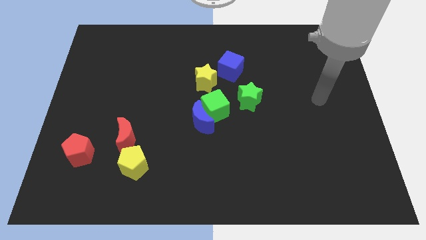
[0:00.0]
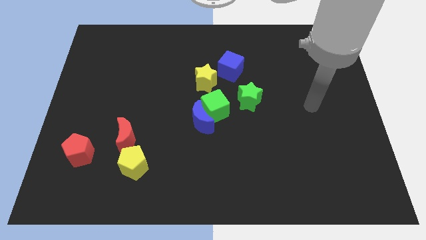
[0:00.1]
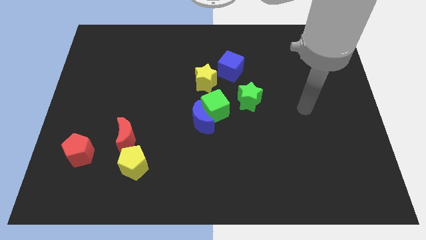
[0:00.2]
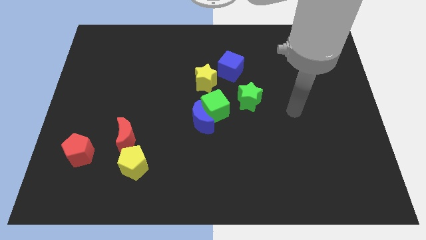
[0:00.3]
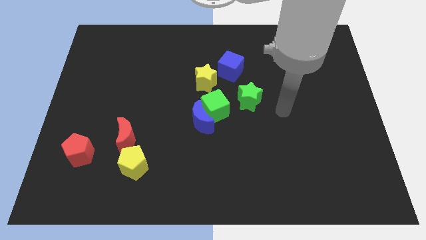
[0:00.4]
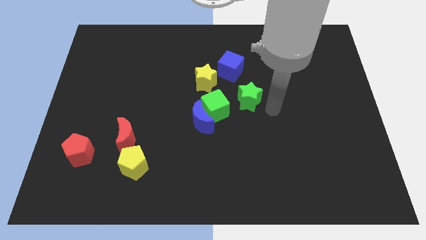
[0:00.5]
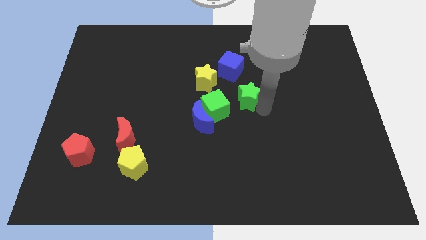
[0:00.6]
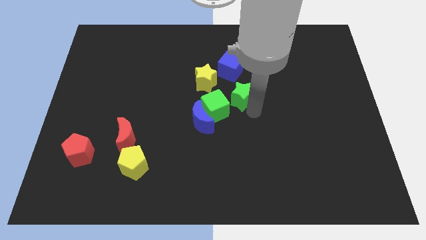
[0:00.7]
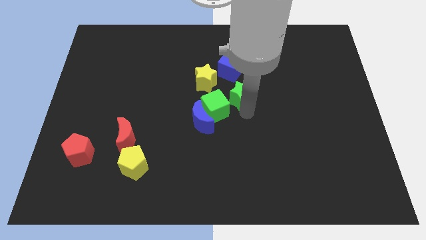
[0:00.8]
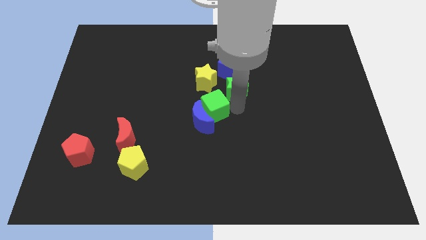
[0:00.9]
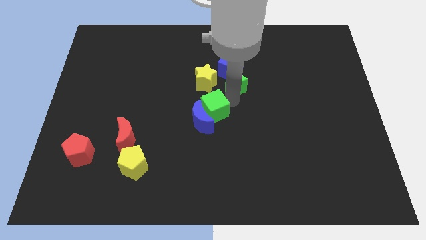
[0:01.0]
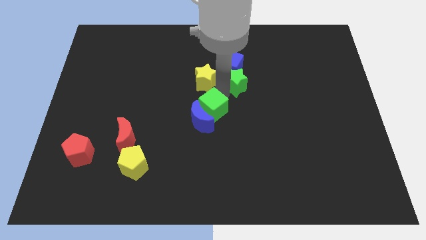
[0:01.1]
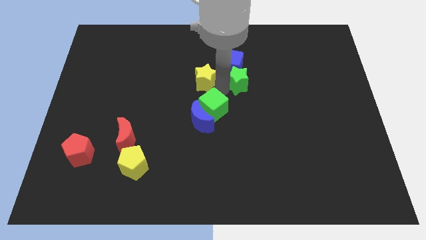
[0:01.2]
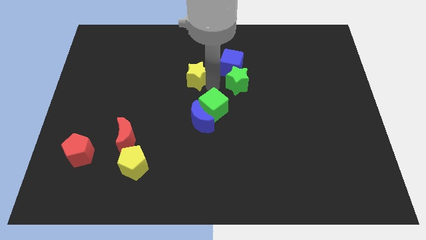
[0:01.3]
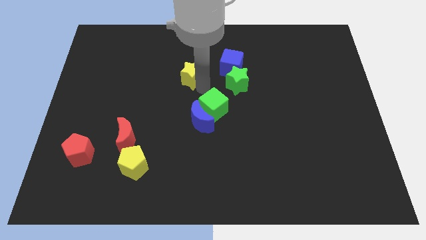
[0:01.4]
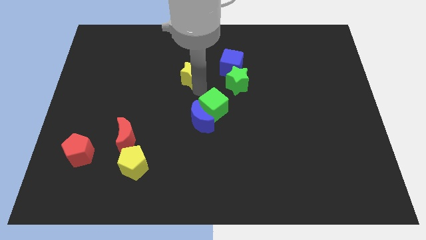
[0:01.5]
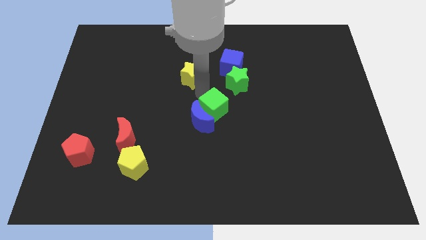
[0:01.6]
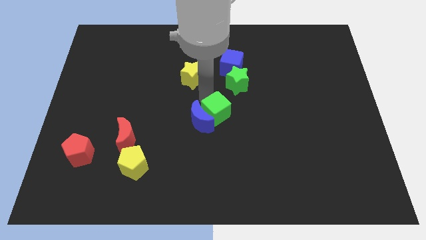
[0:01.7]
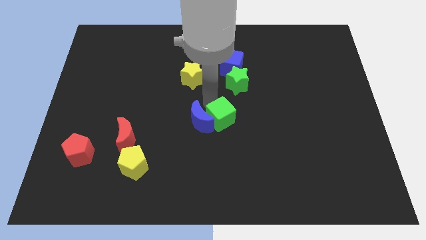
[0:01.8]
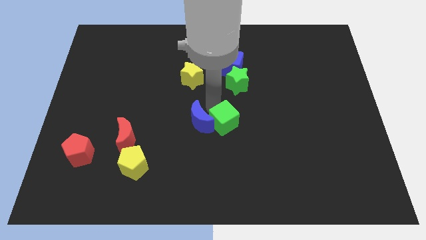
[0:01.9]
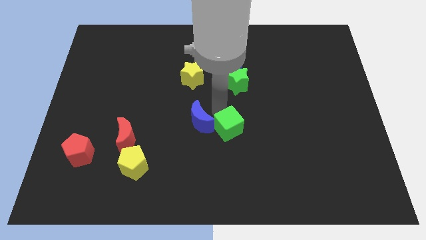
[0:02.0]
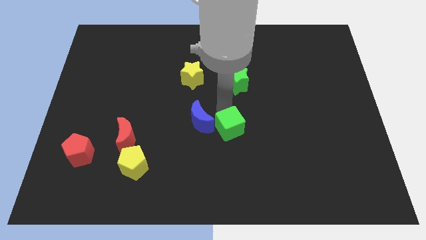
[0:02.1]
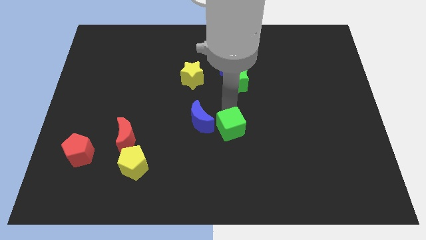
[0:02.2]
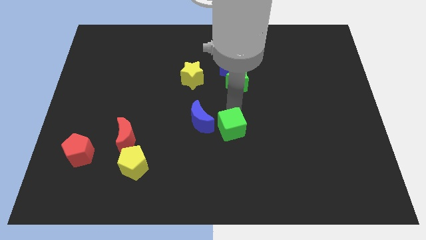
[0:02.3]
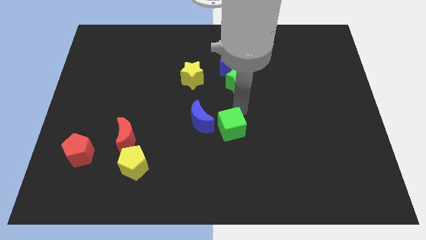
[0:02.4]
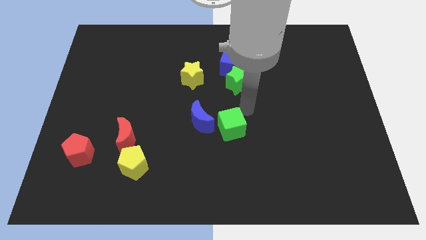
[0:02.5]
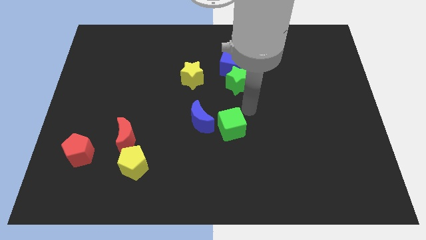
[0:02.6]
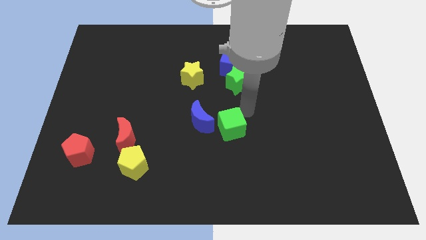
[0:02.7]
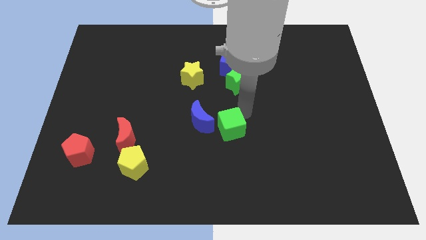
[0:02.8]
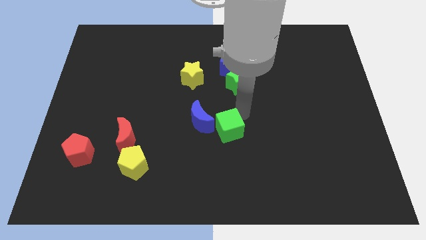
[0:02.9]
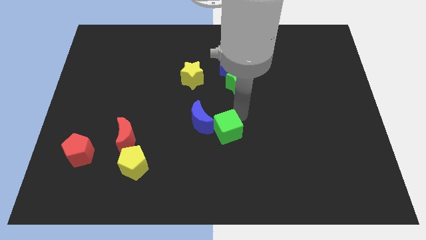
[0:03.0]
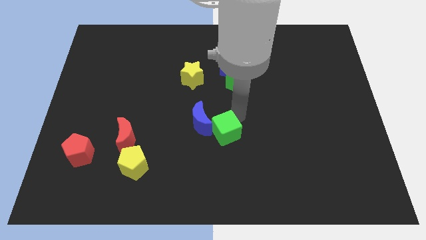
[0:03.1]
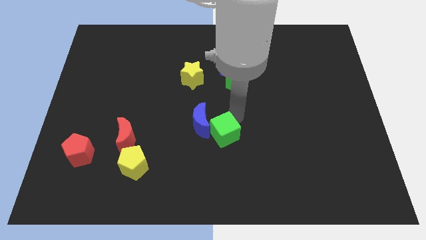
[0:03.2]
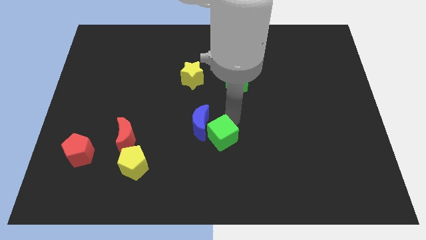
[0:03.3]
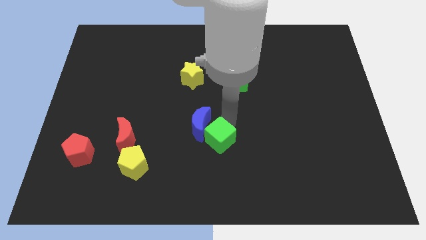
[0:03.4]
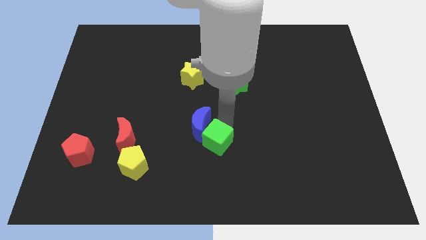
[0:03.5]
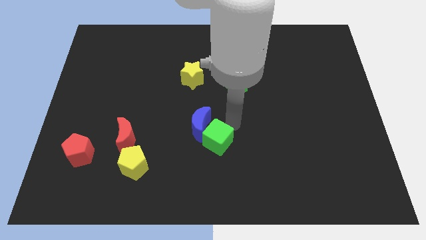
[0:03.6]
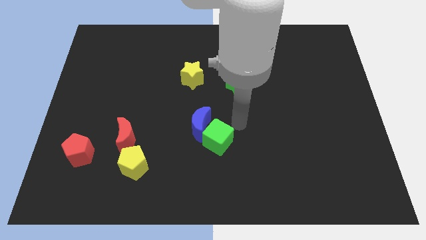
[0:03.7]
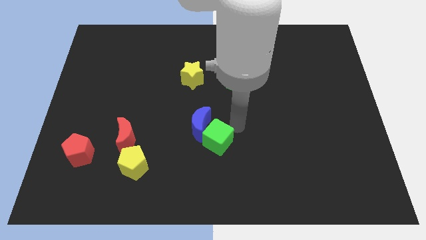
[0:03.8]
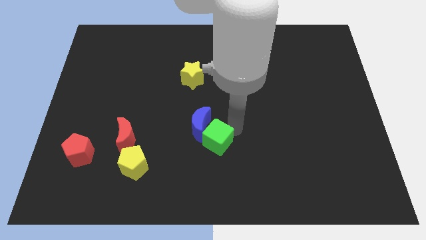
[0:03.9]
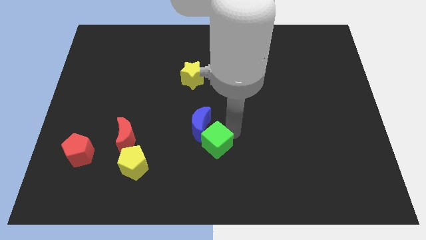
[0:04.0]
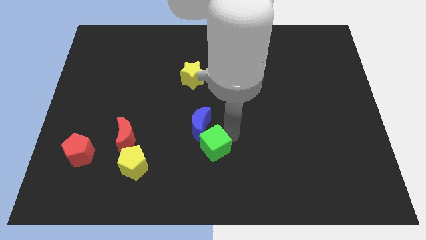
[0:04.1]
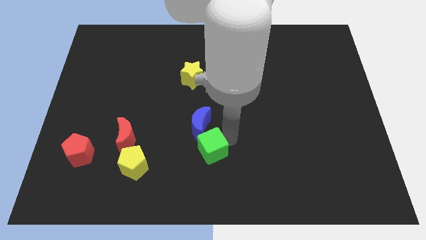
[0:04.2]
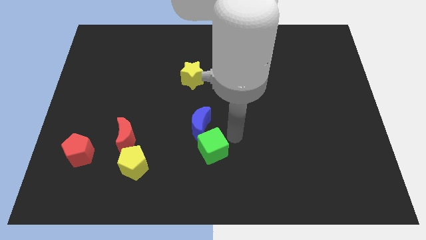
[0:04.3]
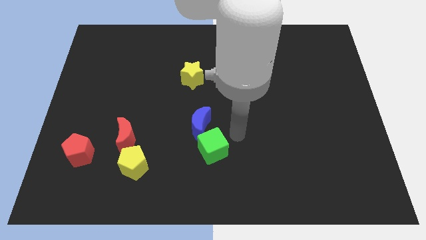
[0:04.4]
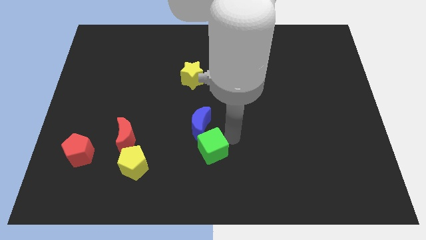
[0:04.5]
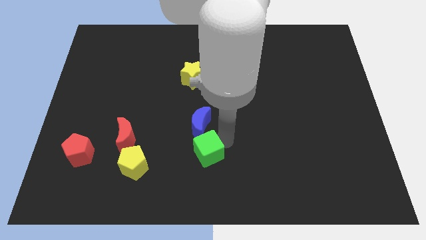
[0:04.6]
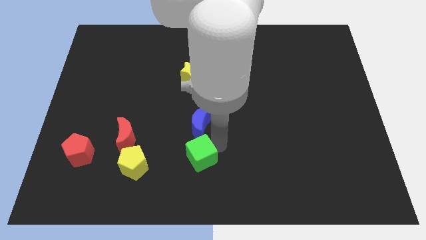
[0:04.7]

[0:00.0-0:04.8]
move the green cube to the right side of the yellow pentagon

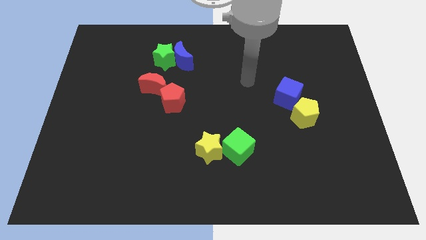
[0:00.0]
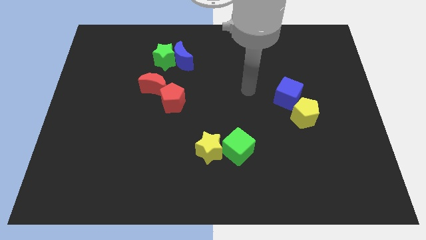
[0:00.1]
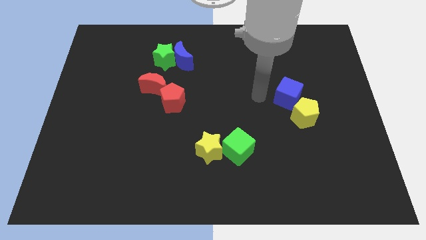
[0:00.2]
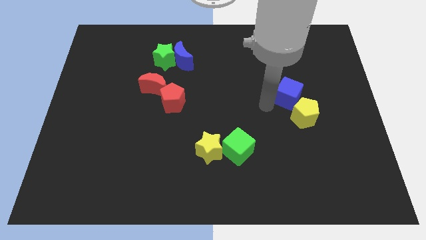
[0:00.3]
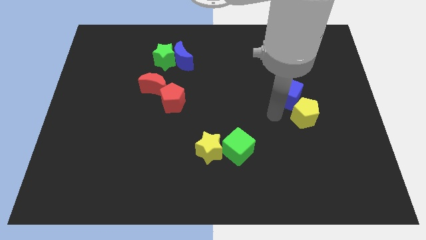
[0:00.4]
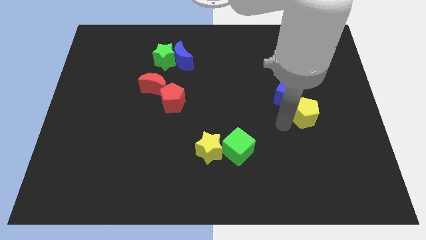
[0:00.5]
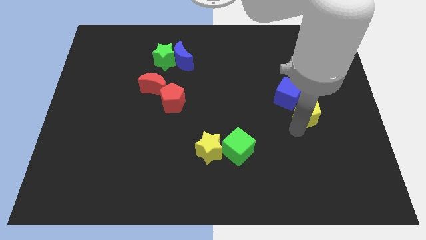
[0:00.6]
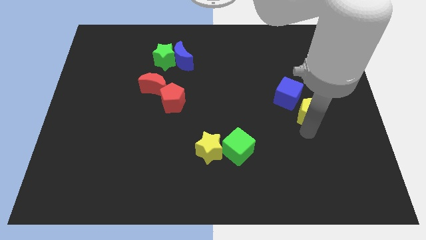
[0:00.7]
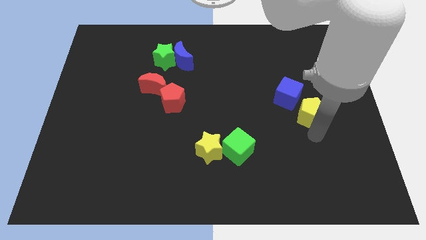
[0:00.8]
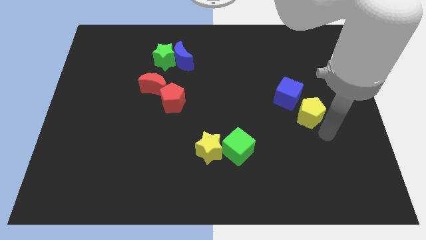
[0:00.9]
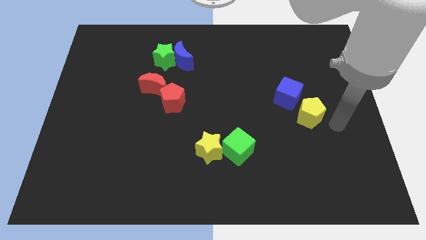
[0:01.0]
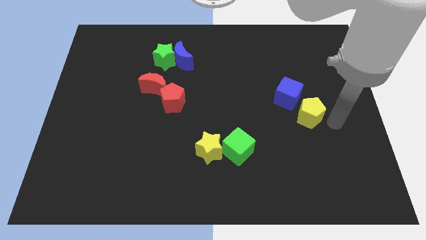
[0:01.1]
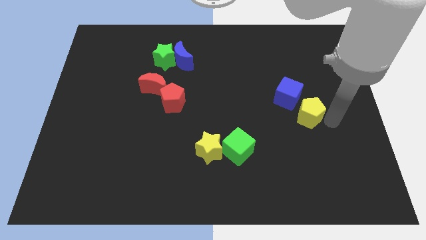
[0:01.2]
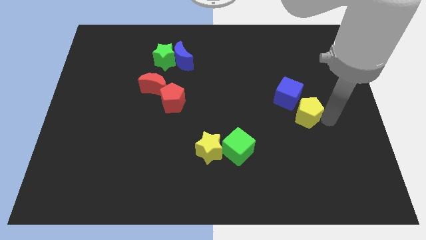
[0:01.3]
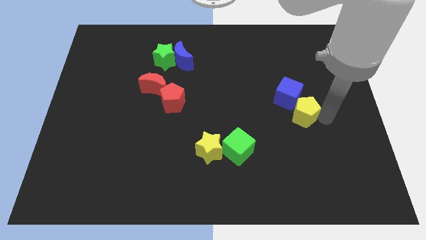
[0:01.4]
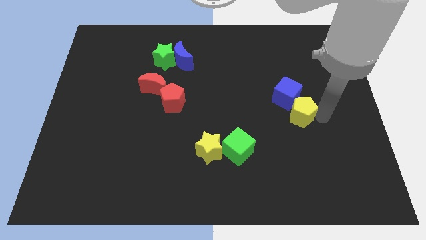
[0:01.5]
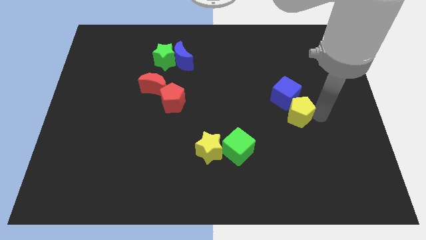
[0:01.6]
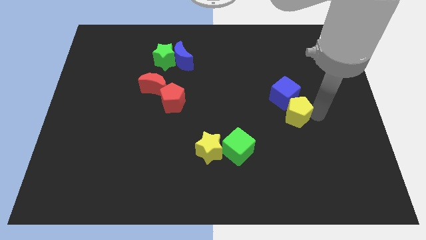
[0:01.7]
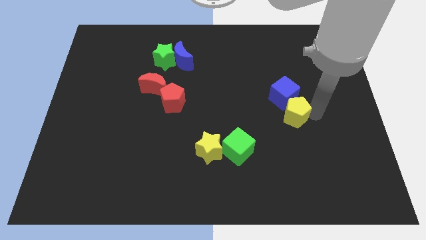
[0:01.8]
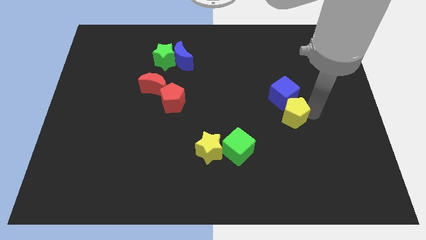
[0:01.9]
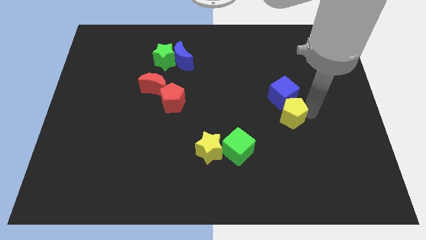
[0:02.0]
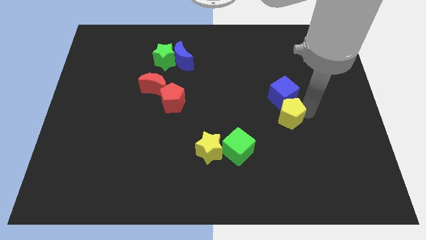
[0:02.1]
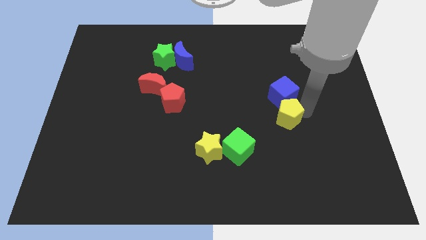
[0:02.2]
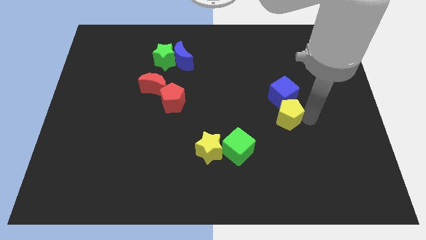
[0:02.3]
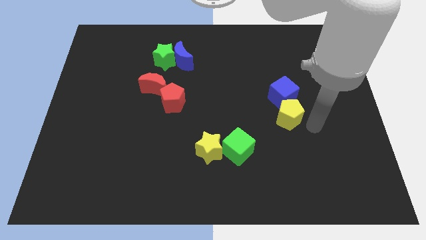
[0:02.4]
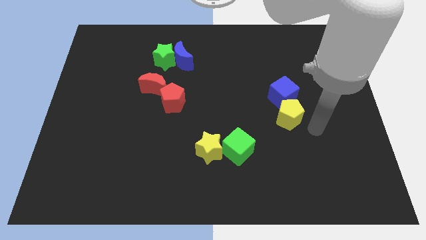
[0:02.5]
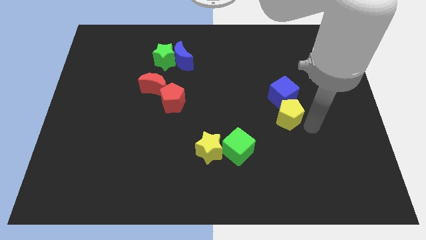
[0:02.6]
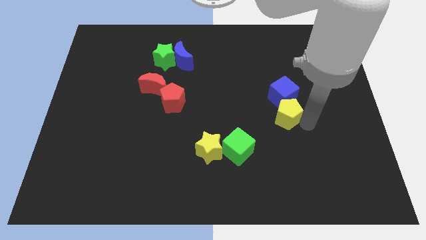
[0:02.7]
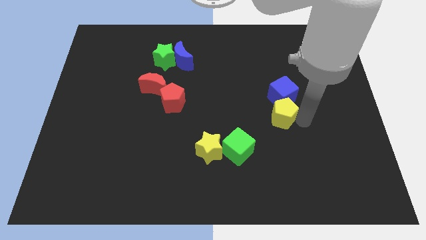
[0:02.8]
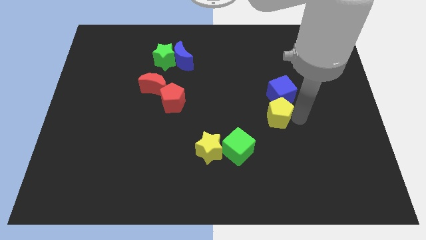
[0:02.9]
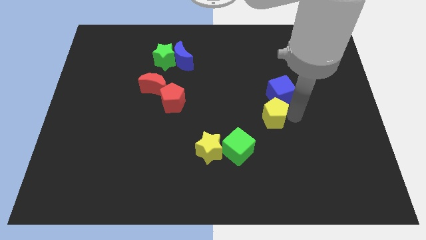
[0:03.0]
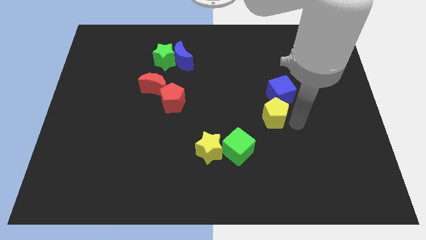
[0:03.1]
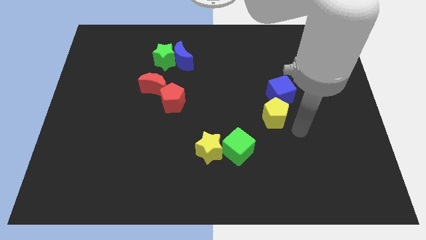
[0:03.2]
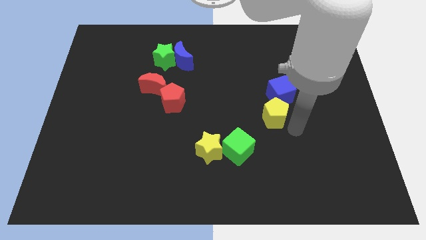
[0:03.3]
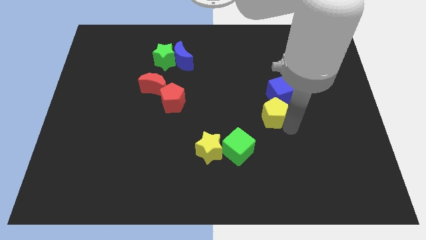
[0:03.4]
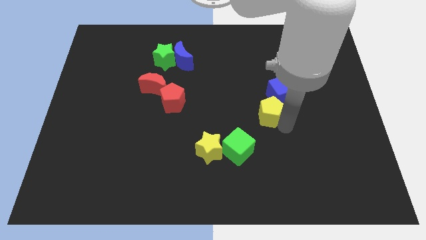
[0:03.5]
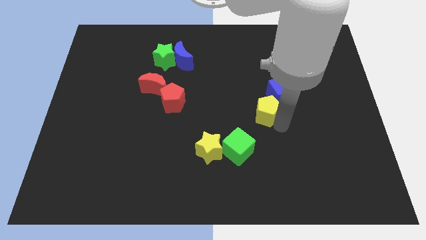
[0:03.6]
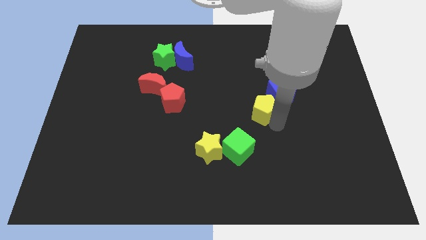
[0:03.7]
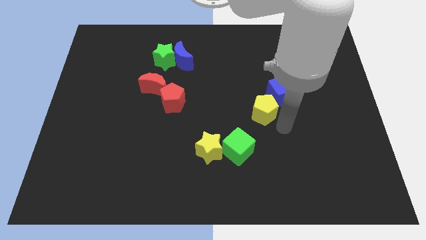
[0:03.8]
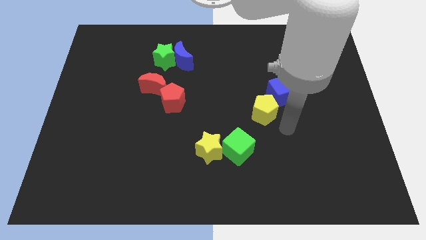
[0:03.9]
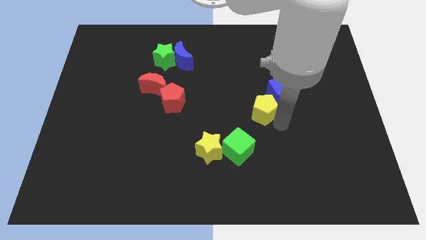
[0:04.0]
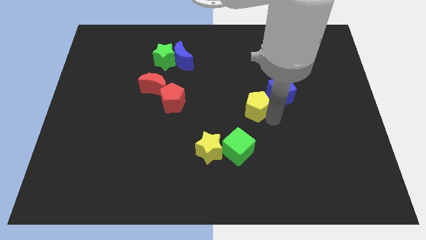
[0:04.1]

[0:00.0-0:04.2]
push the yellow pentagon left of the blue cube
